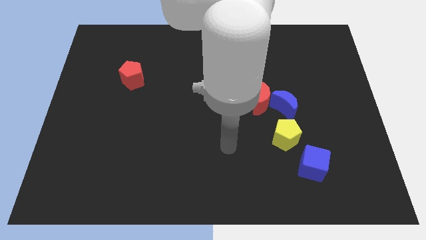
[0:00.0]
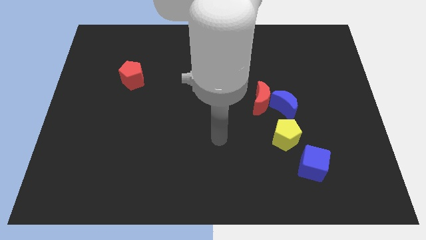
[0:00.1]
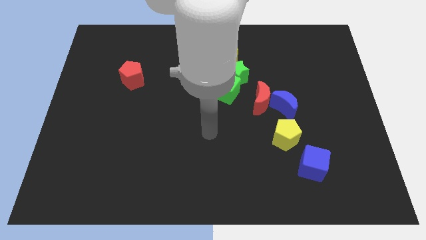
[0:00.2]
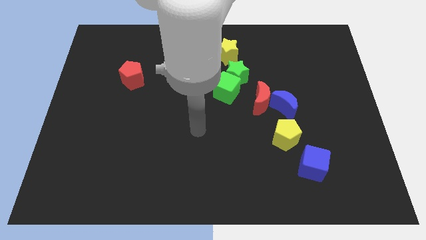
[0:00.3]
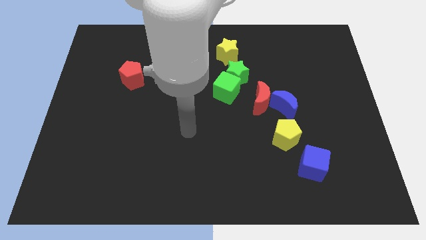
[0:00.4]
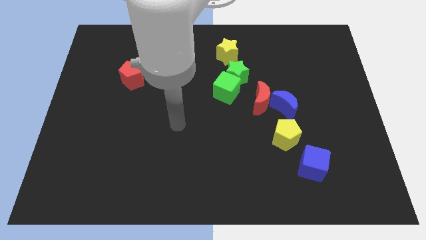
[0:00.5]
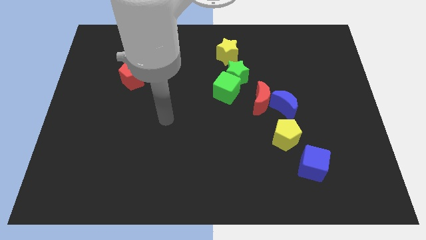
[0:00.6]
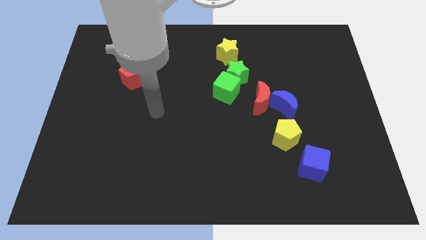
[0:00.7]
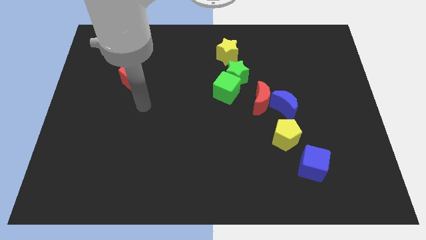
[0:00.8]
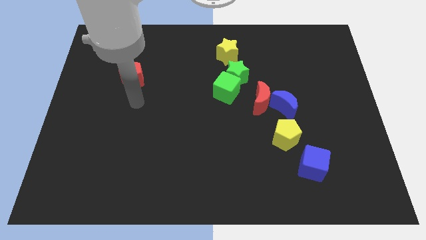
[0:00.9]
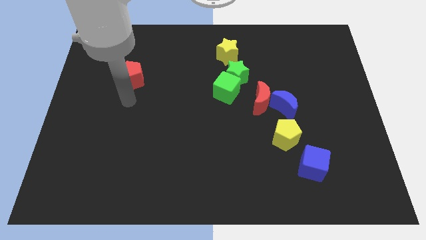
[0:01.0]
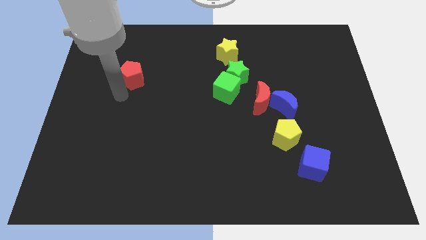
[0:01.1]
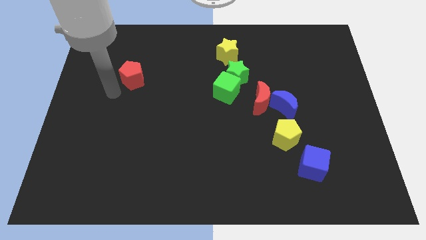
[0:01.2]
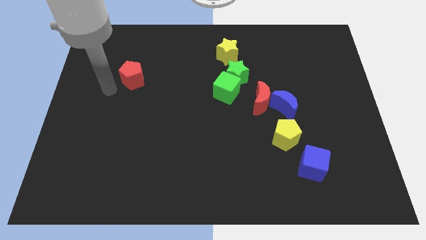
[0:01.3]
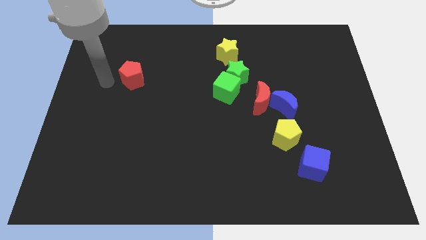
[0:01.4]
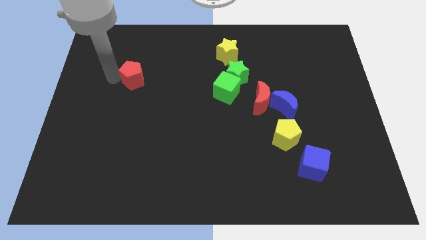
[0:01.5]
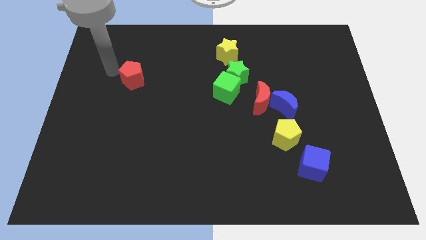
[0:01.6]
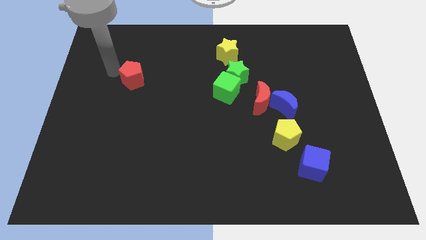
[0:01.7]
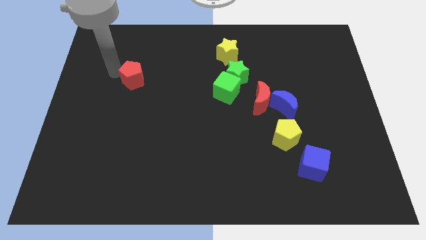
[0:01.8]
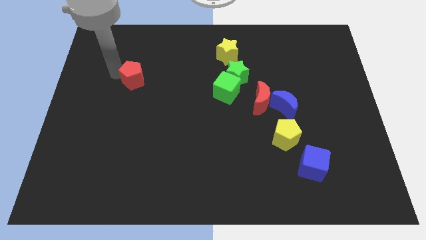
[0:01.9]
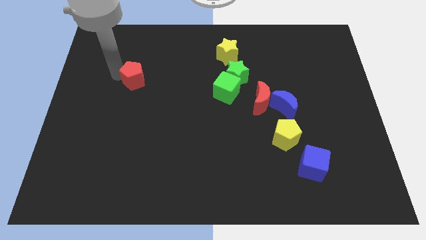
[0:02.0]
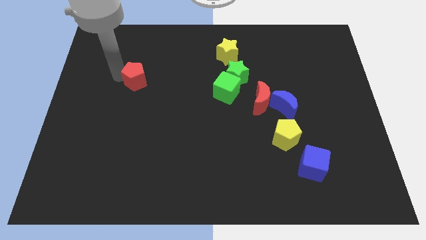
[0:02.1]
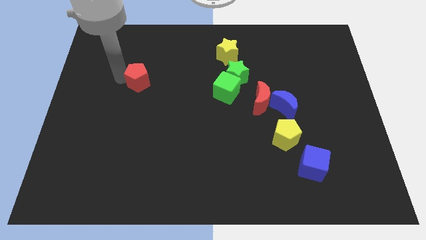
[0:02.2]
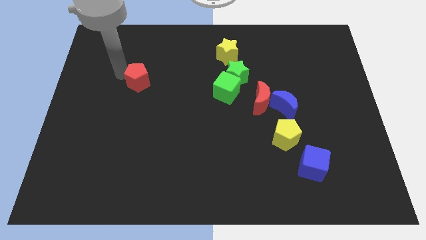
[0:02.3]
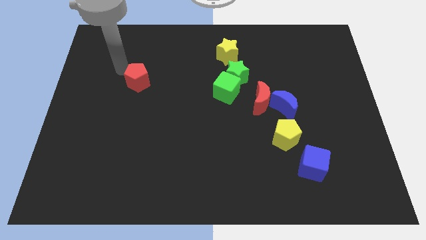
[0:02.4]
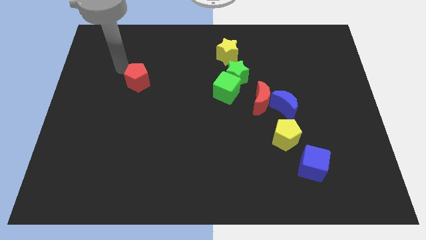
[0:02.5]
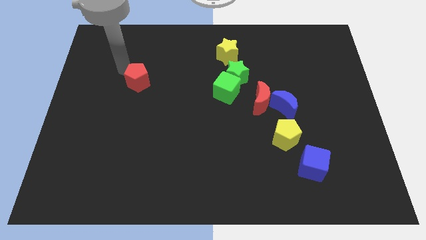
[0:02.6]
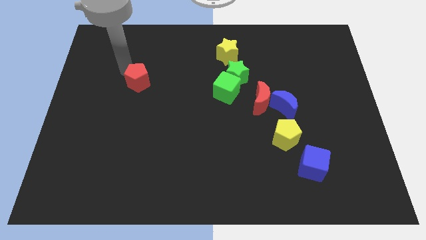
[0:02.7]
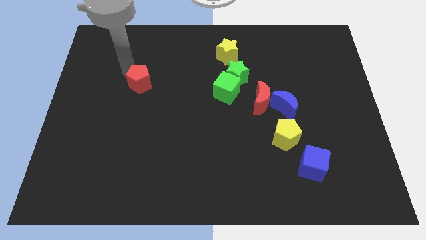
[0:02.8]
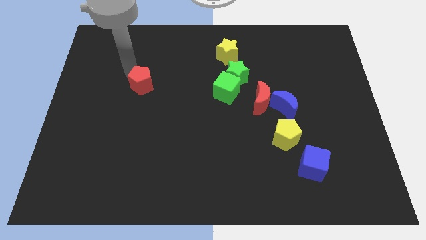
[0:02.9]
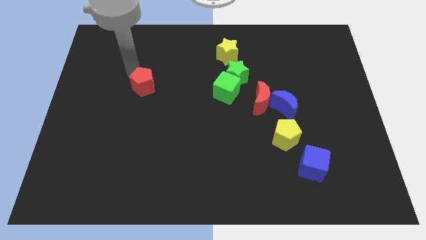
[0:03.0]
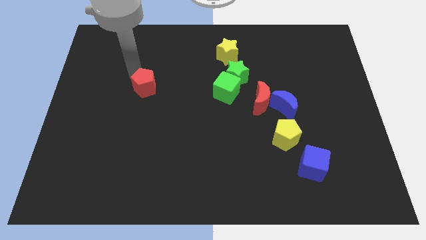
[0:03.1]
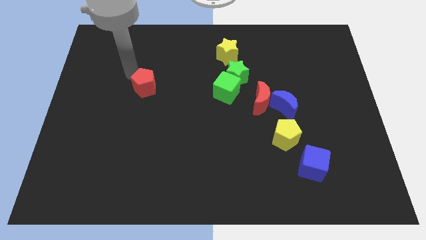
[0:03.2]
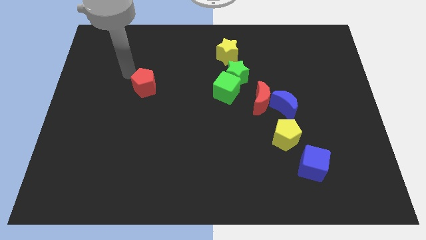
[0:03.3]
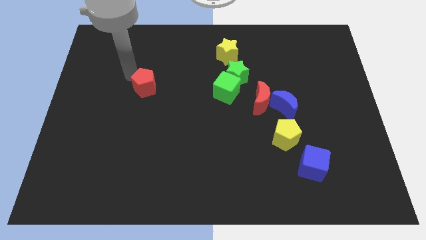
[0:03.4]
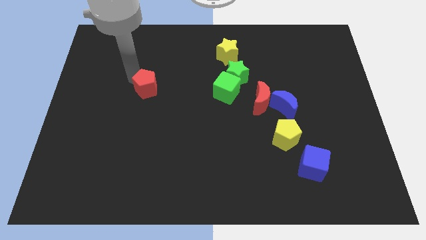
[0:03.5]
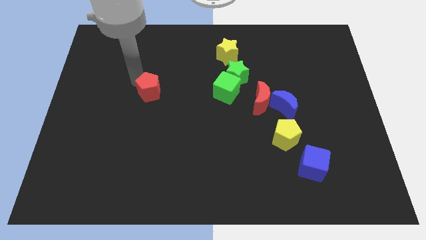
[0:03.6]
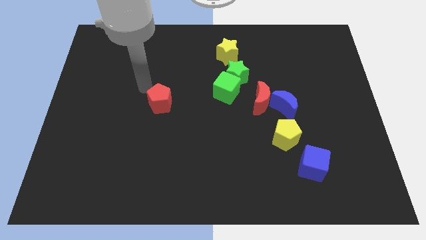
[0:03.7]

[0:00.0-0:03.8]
slightly move the red pentagon downwards and right

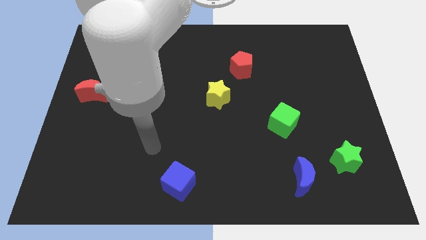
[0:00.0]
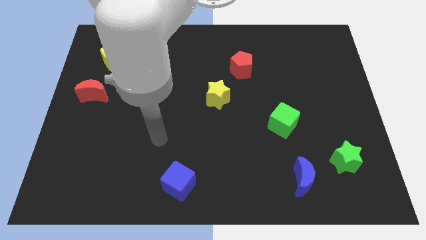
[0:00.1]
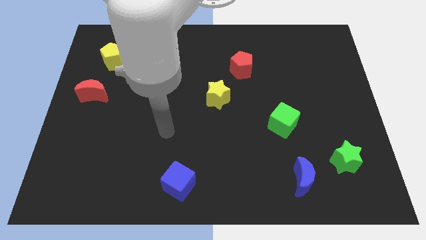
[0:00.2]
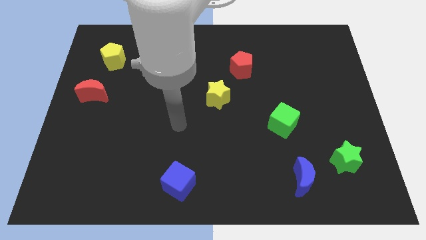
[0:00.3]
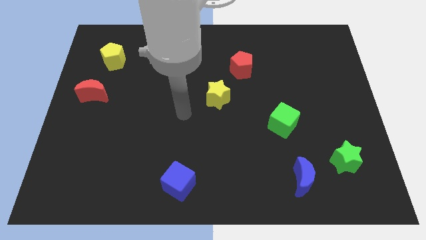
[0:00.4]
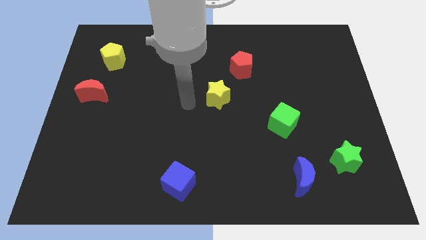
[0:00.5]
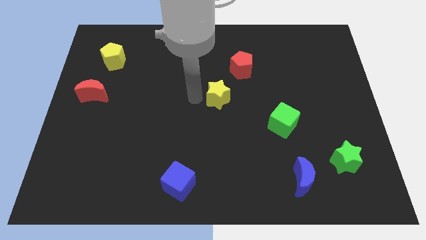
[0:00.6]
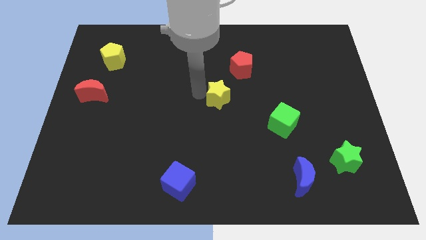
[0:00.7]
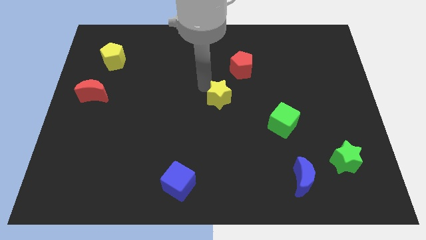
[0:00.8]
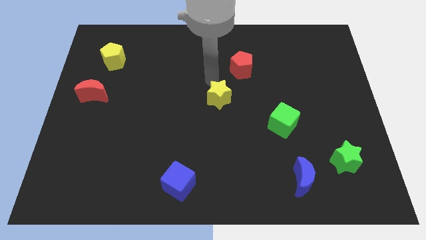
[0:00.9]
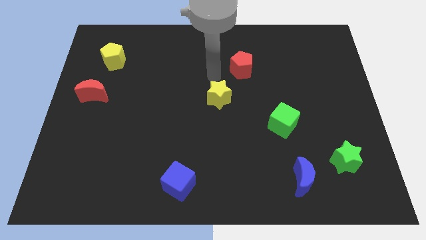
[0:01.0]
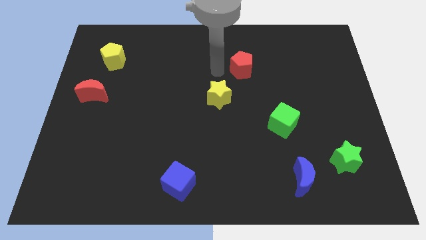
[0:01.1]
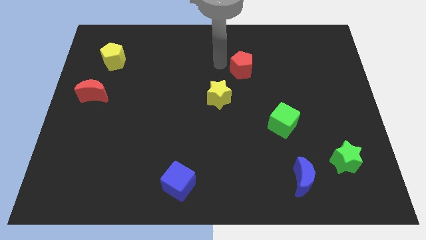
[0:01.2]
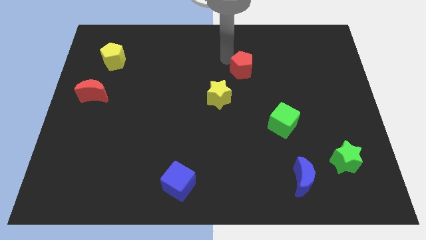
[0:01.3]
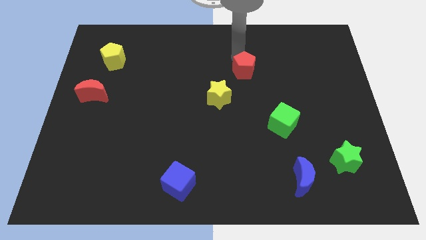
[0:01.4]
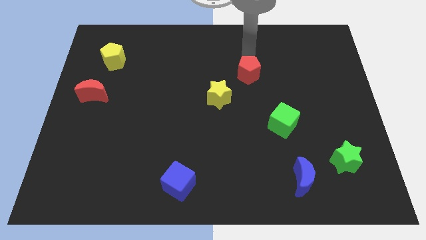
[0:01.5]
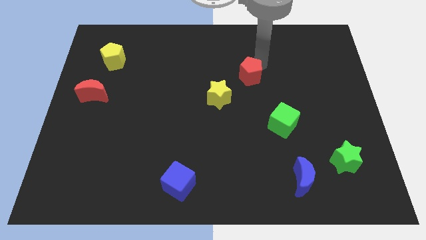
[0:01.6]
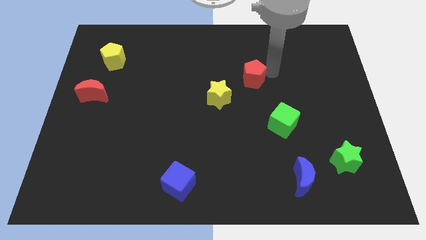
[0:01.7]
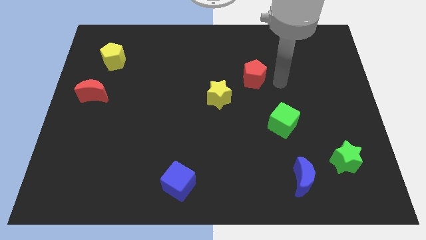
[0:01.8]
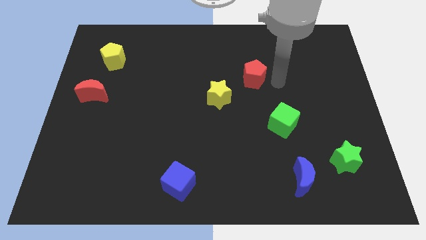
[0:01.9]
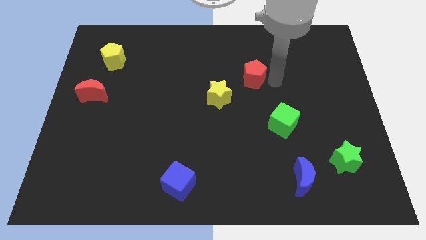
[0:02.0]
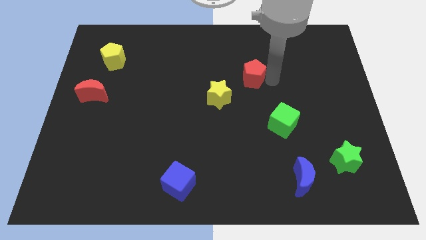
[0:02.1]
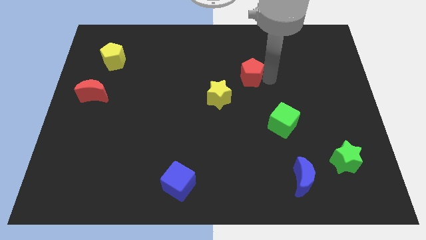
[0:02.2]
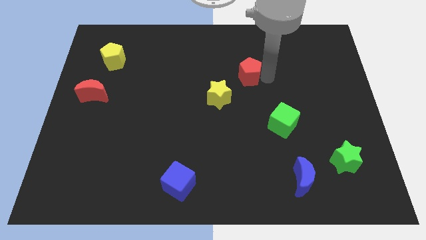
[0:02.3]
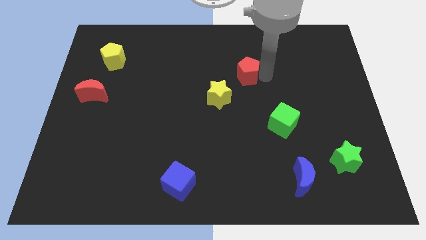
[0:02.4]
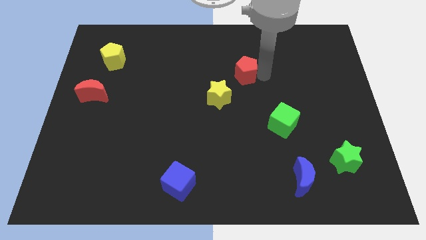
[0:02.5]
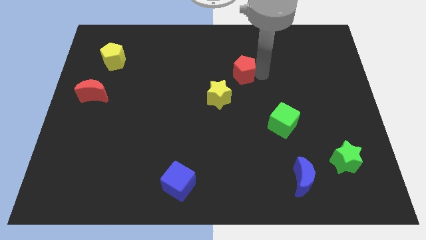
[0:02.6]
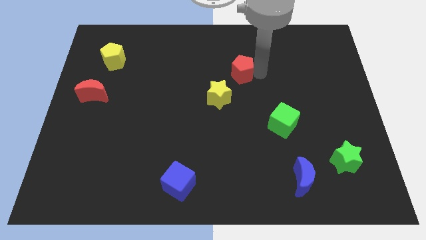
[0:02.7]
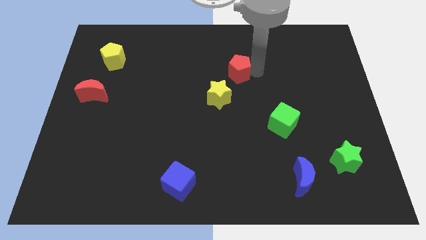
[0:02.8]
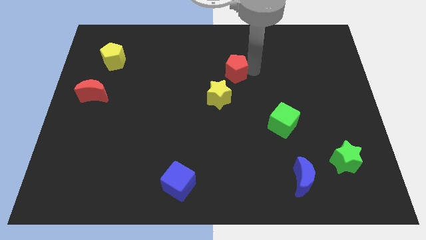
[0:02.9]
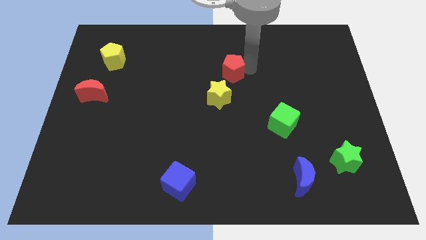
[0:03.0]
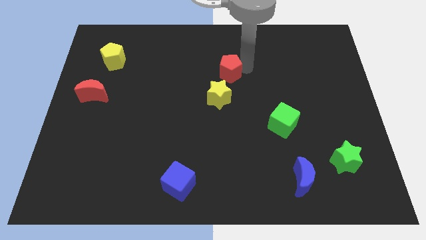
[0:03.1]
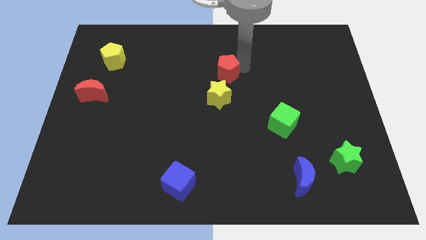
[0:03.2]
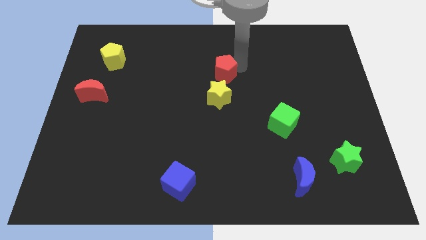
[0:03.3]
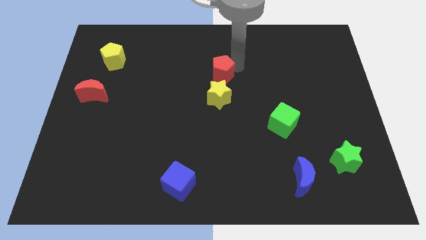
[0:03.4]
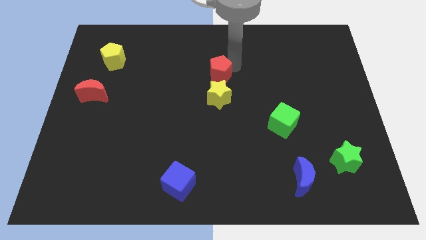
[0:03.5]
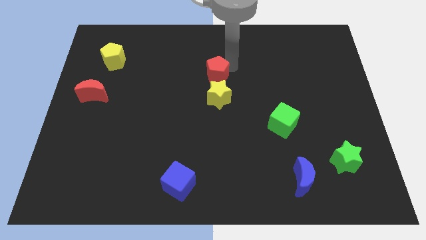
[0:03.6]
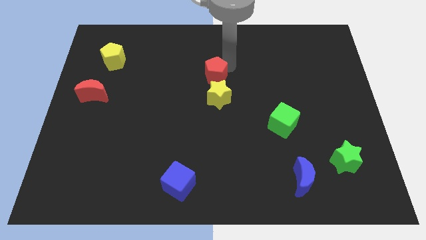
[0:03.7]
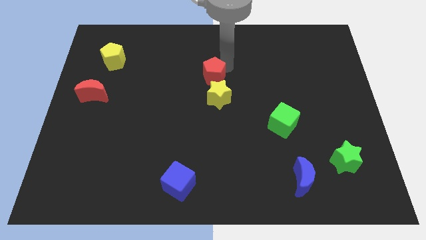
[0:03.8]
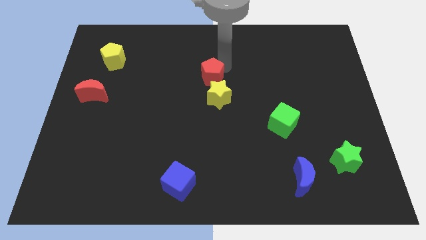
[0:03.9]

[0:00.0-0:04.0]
slide the red pentagon downwards and to the left somewhat
